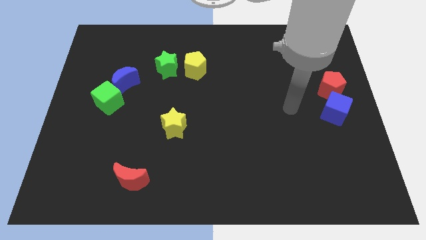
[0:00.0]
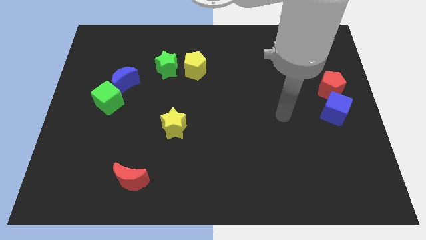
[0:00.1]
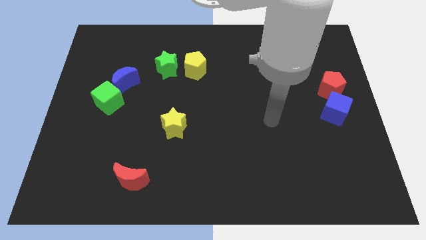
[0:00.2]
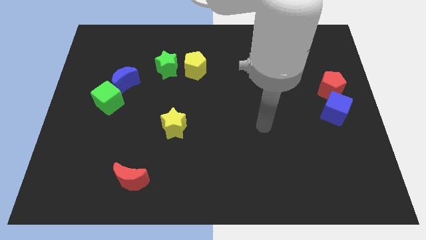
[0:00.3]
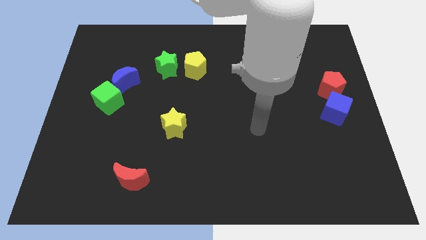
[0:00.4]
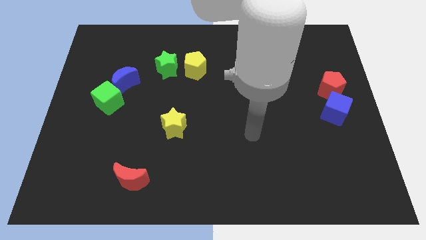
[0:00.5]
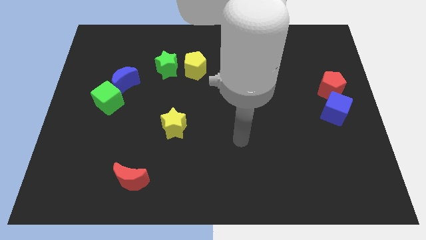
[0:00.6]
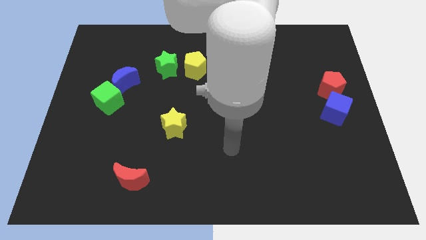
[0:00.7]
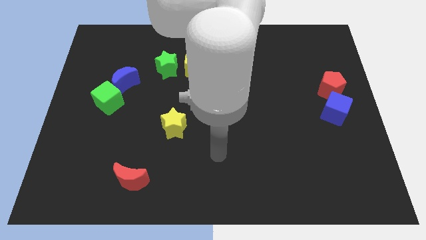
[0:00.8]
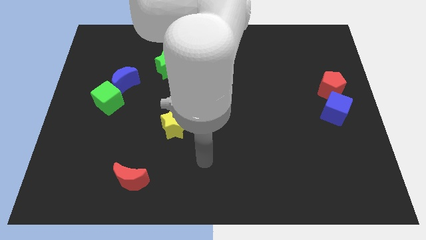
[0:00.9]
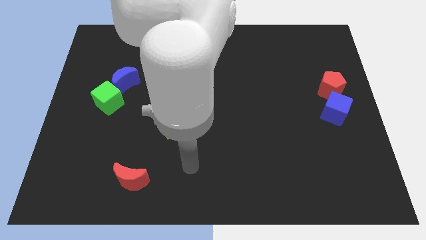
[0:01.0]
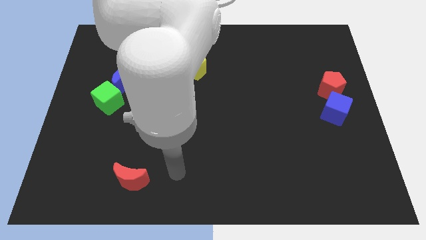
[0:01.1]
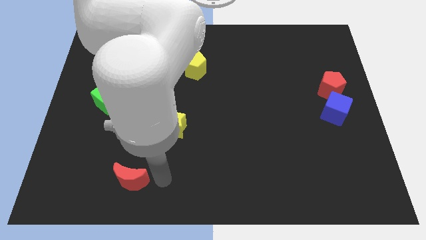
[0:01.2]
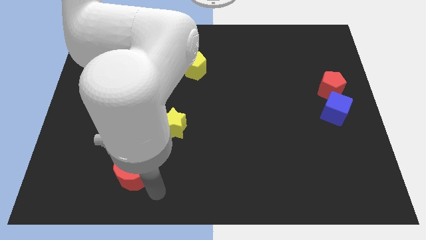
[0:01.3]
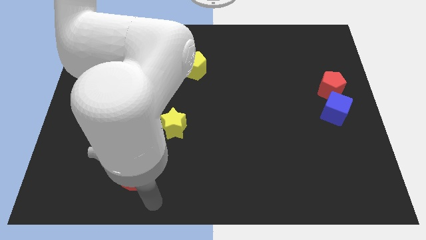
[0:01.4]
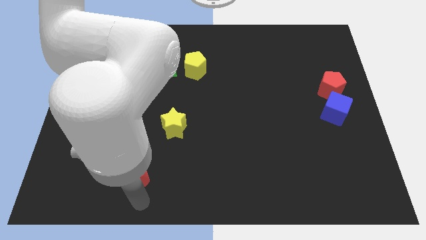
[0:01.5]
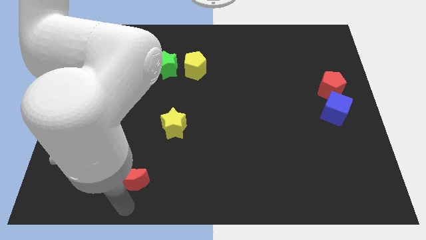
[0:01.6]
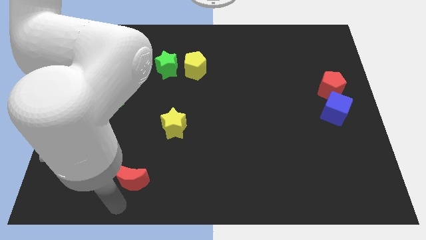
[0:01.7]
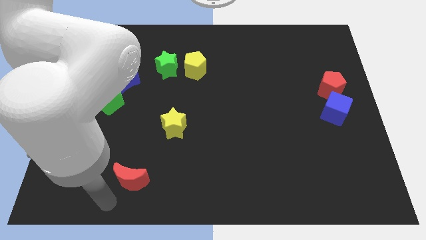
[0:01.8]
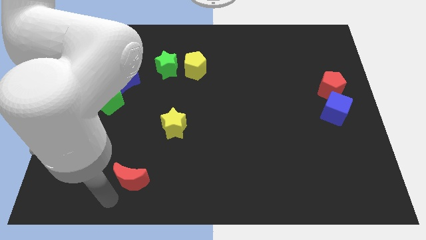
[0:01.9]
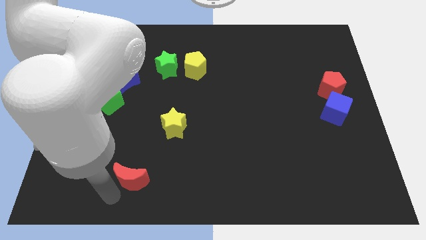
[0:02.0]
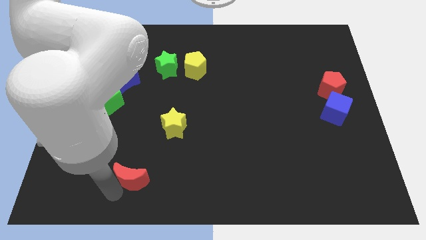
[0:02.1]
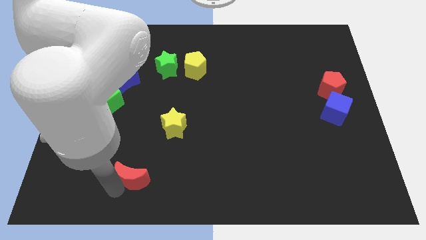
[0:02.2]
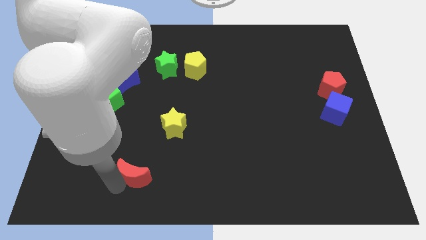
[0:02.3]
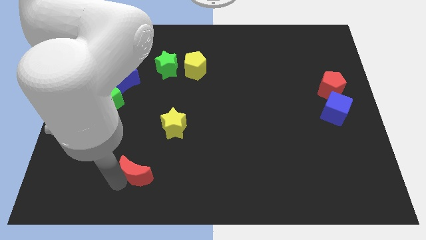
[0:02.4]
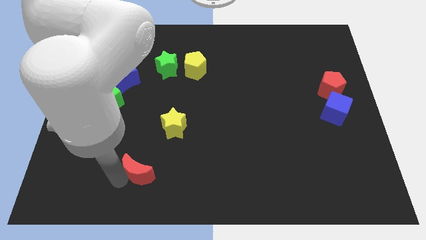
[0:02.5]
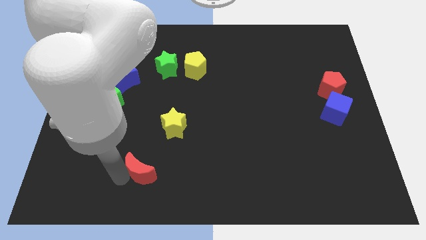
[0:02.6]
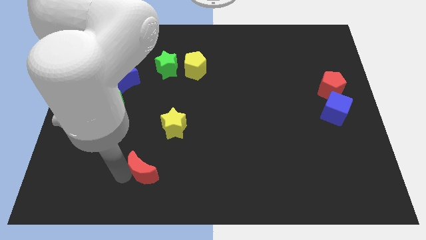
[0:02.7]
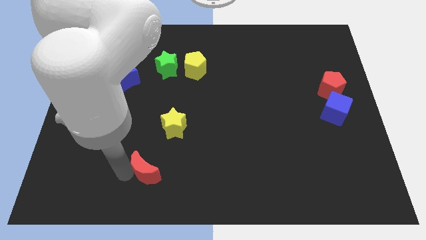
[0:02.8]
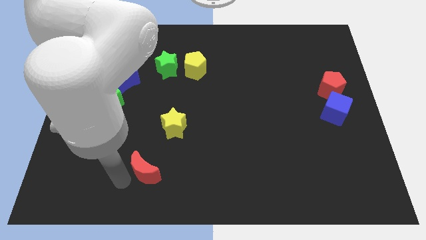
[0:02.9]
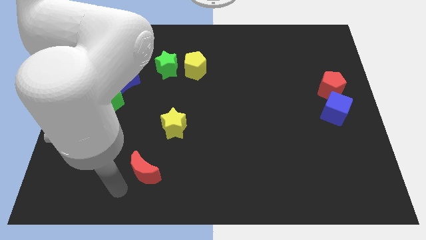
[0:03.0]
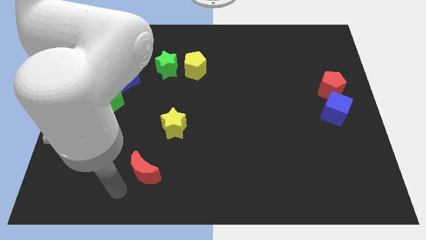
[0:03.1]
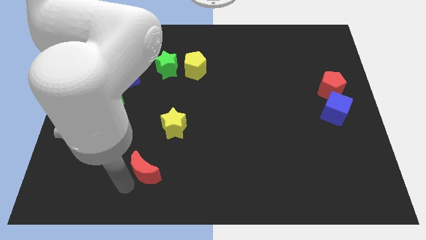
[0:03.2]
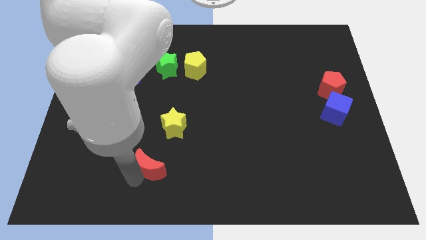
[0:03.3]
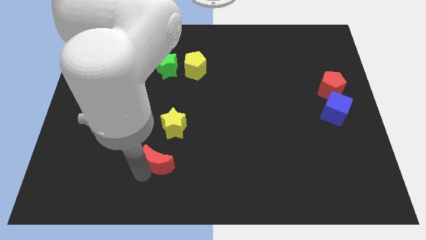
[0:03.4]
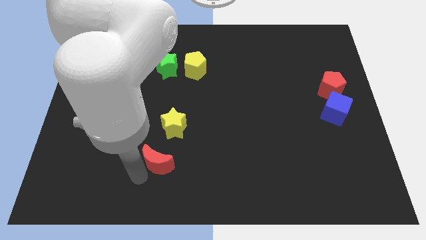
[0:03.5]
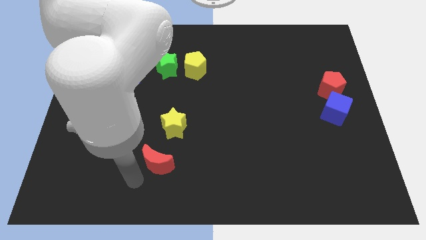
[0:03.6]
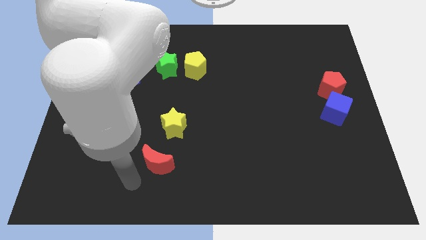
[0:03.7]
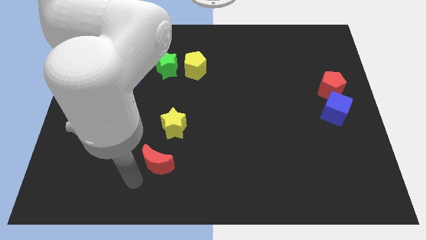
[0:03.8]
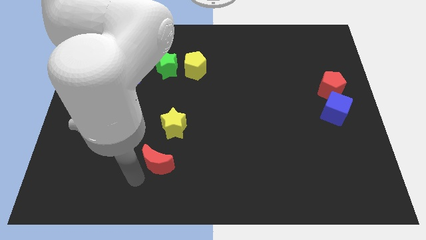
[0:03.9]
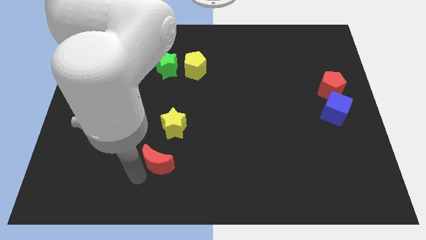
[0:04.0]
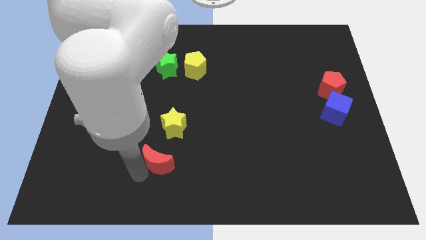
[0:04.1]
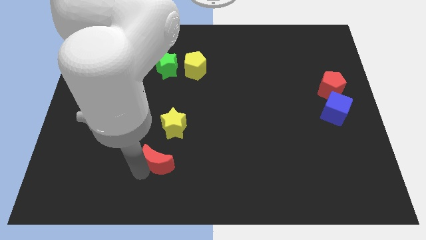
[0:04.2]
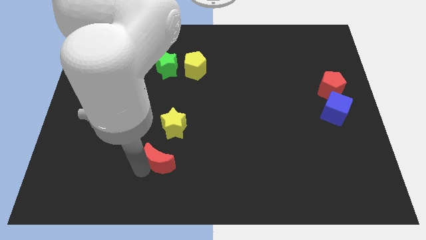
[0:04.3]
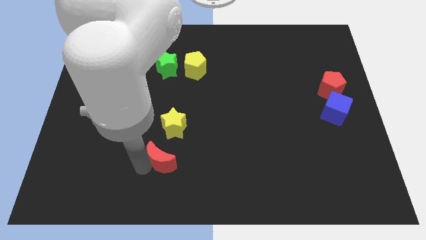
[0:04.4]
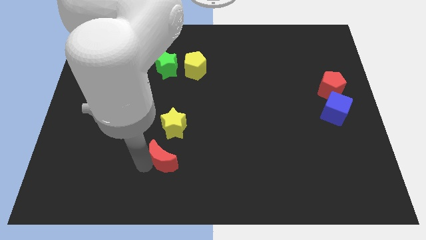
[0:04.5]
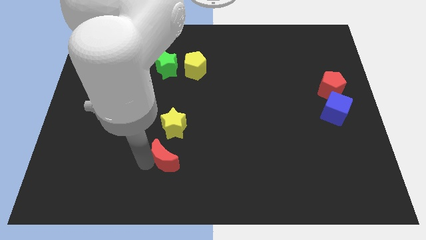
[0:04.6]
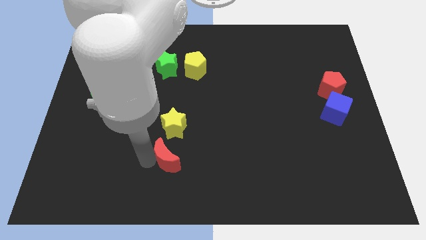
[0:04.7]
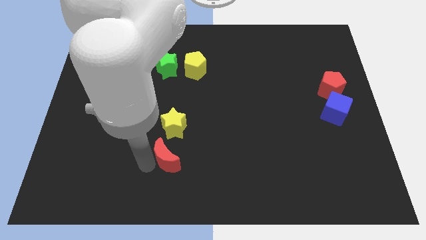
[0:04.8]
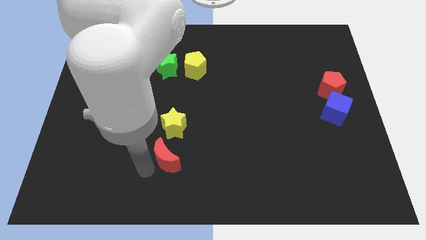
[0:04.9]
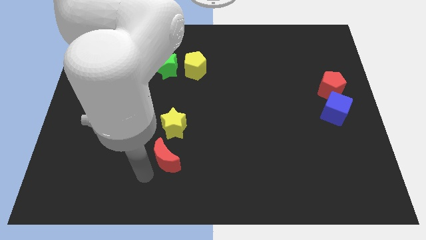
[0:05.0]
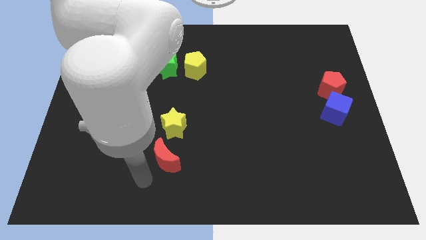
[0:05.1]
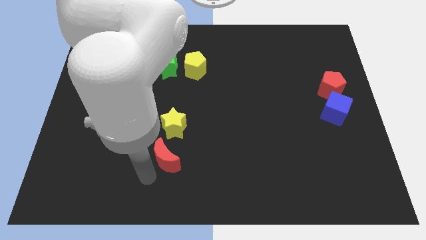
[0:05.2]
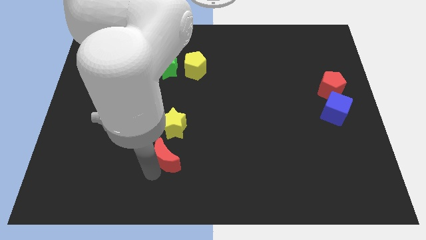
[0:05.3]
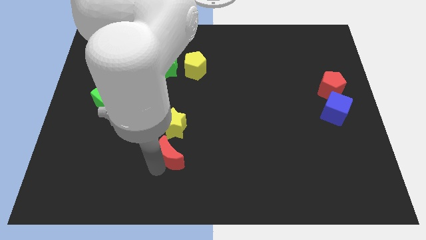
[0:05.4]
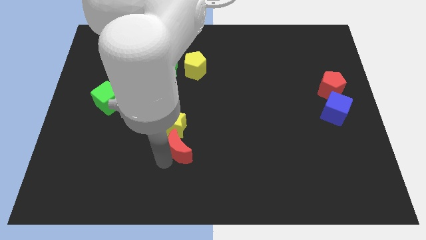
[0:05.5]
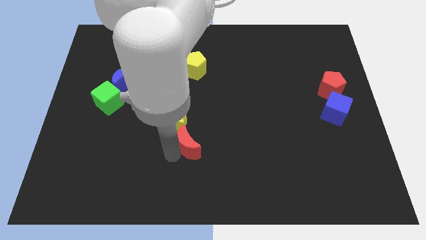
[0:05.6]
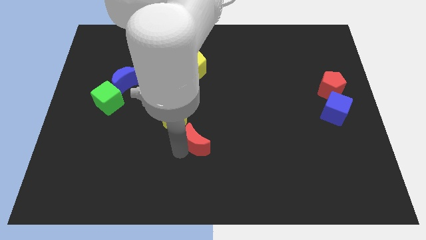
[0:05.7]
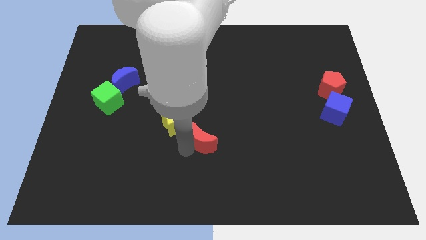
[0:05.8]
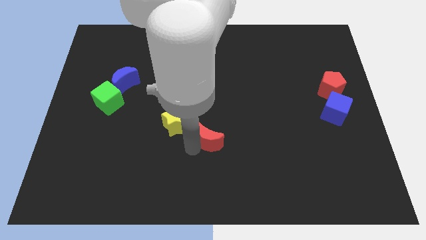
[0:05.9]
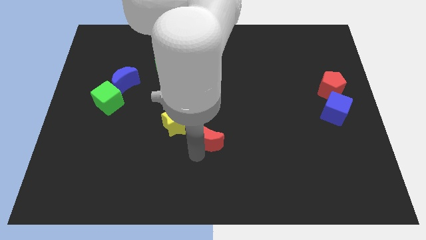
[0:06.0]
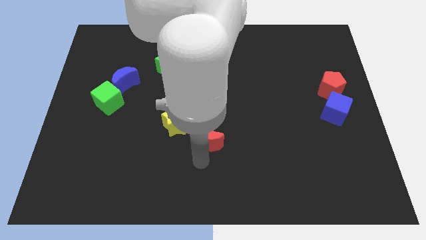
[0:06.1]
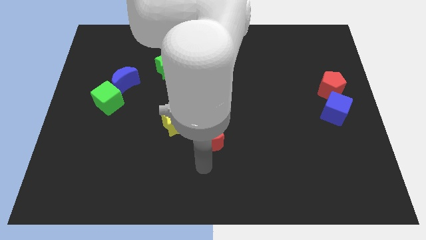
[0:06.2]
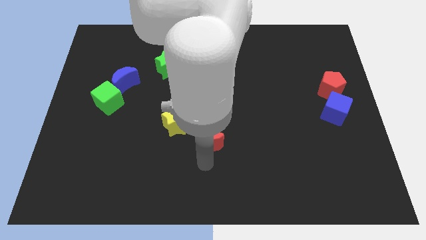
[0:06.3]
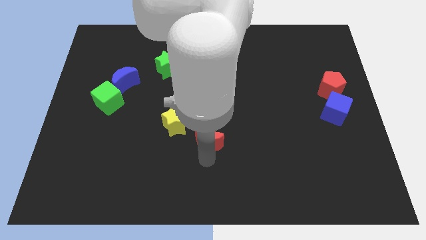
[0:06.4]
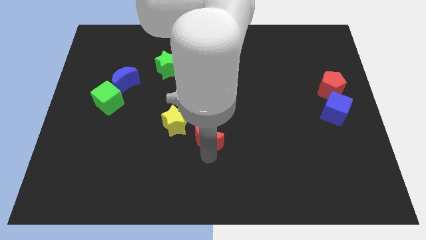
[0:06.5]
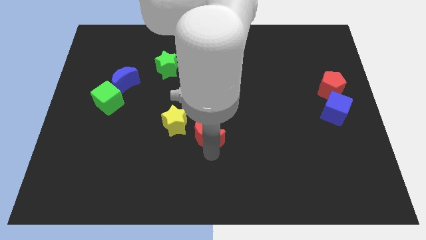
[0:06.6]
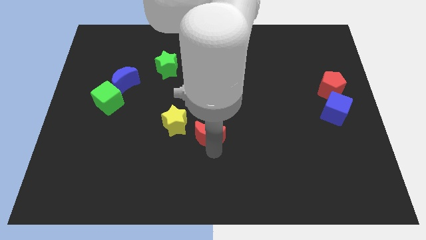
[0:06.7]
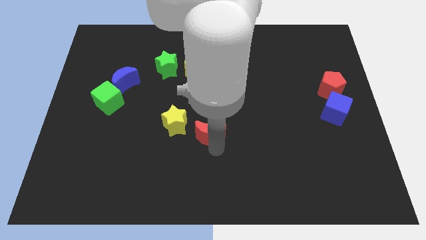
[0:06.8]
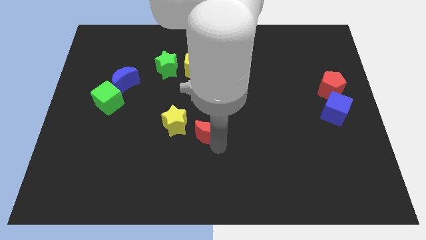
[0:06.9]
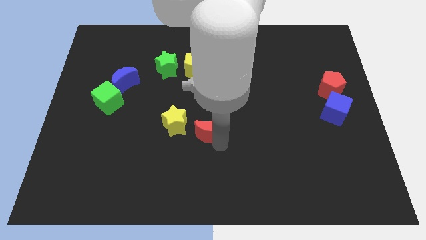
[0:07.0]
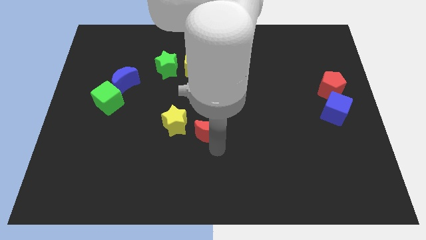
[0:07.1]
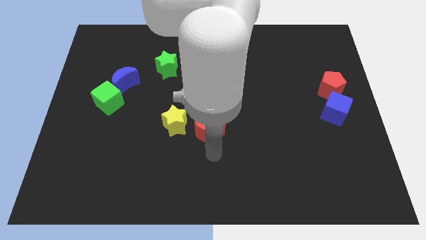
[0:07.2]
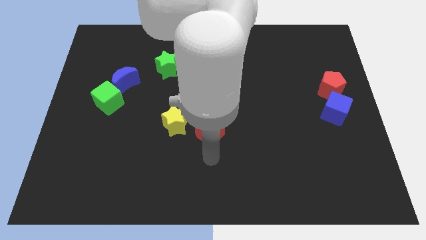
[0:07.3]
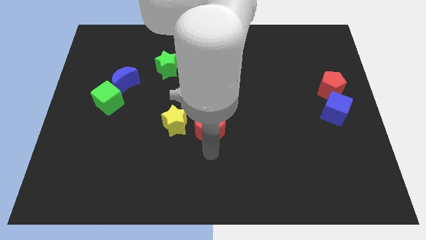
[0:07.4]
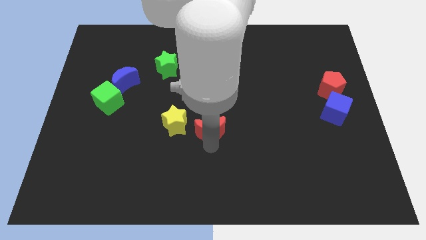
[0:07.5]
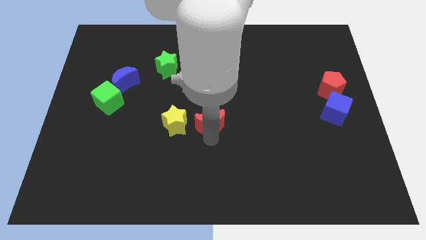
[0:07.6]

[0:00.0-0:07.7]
slide the red moon upwards and to the right diagonally
